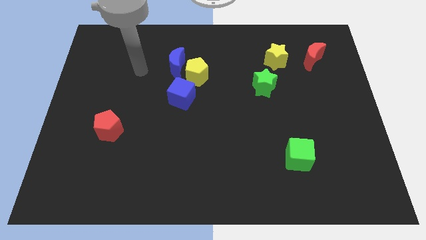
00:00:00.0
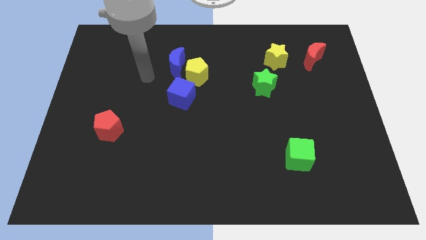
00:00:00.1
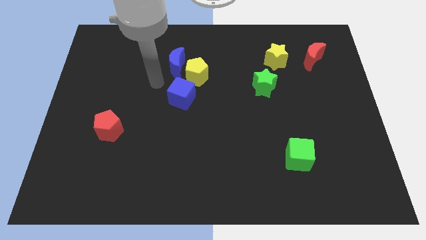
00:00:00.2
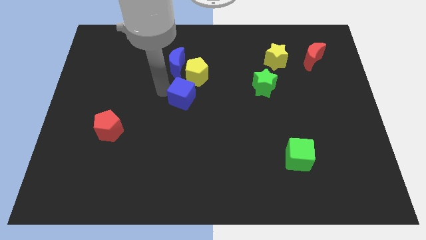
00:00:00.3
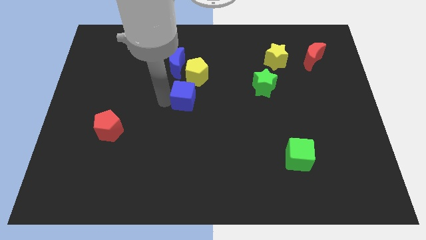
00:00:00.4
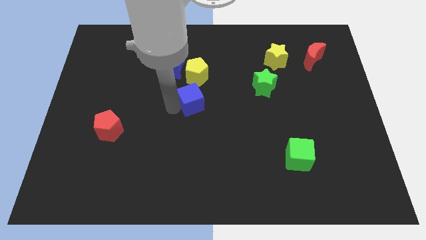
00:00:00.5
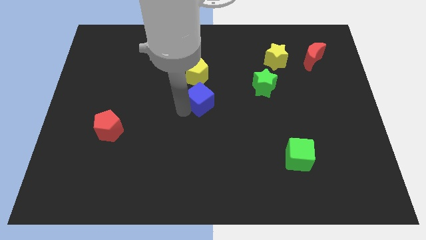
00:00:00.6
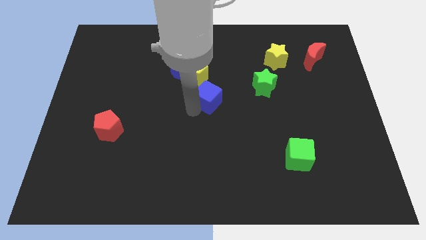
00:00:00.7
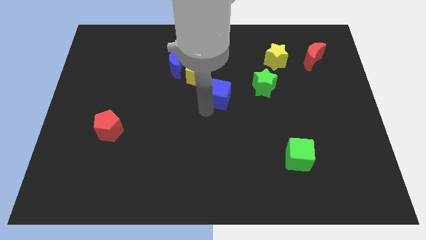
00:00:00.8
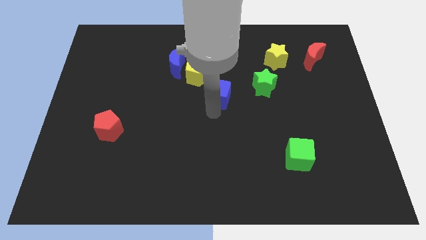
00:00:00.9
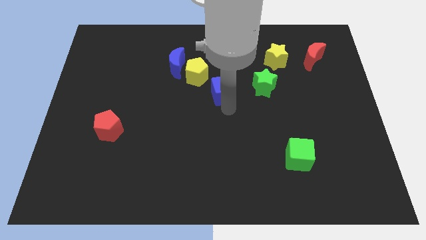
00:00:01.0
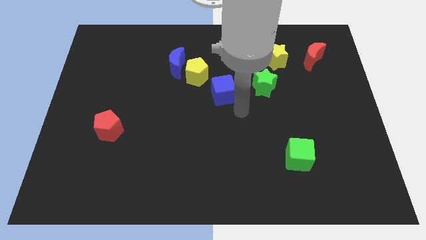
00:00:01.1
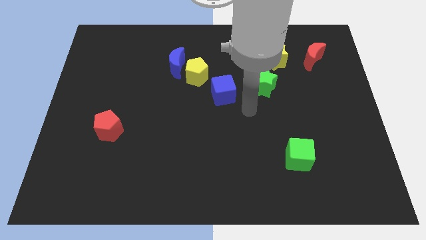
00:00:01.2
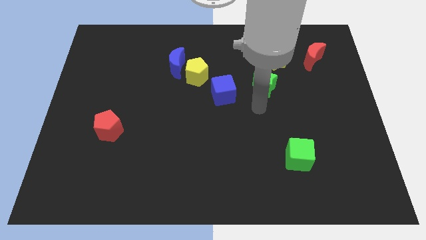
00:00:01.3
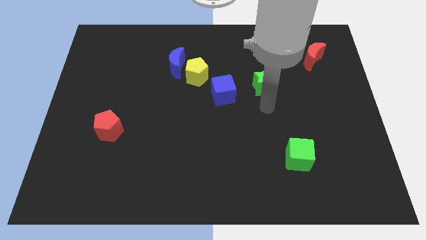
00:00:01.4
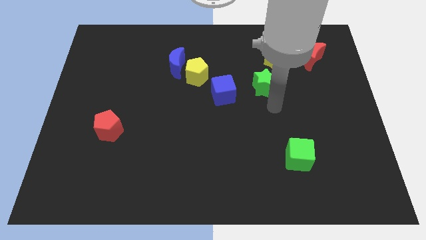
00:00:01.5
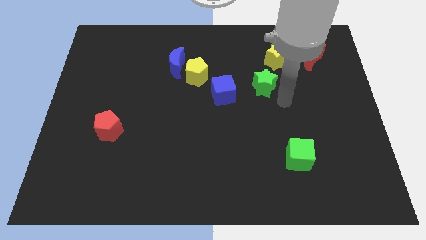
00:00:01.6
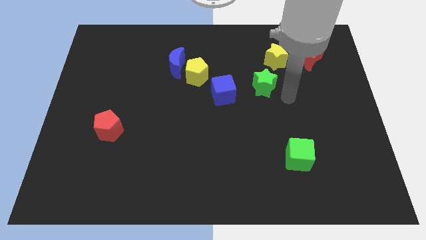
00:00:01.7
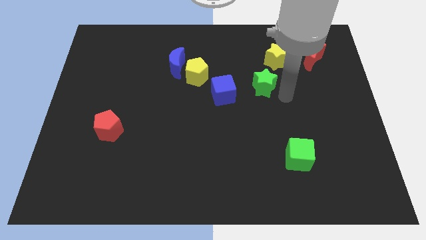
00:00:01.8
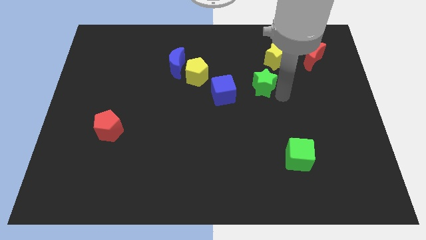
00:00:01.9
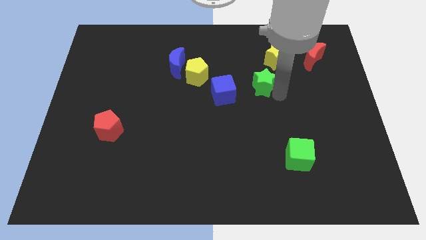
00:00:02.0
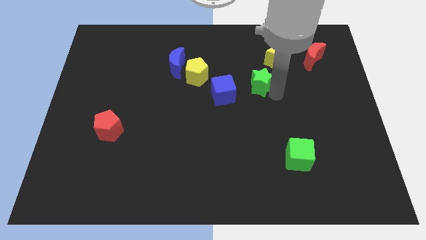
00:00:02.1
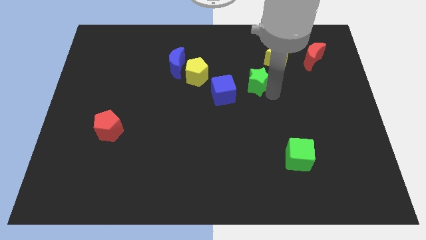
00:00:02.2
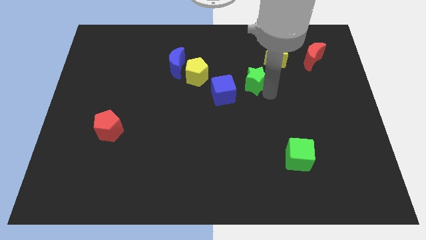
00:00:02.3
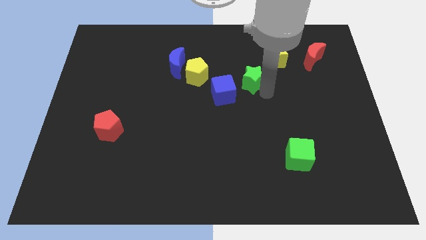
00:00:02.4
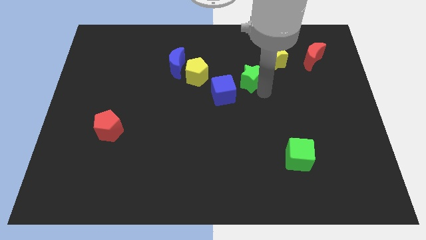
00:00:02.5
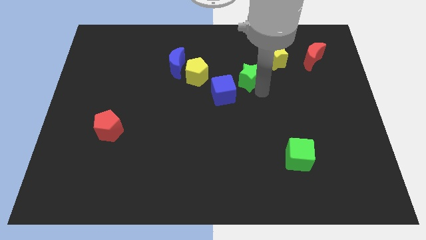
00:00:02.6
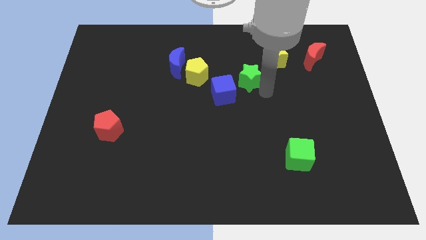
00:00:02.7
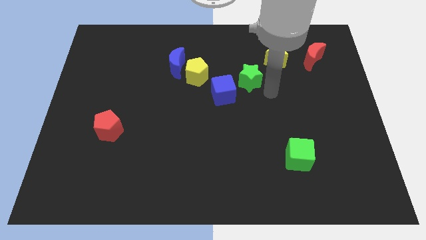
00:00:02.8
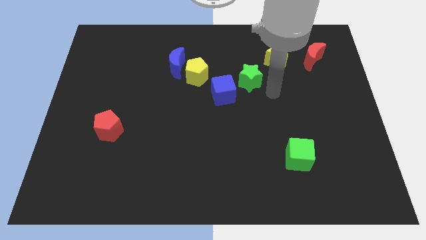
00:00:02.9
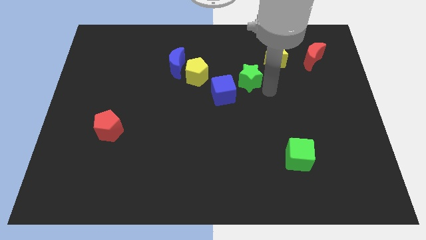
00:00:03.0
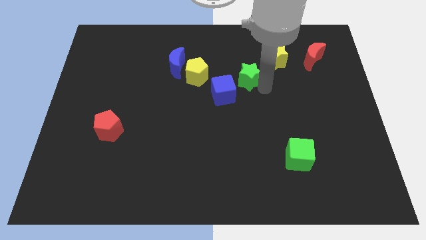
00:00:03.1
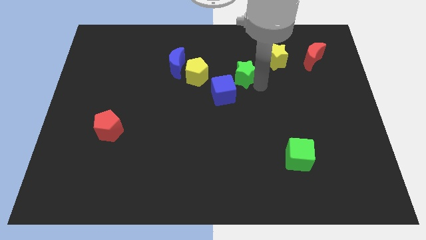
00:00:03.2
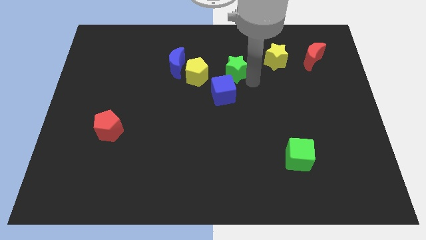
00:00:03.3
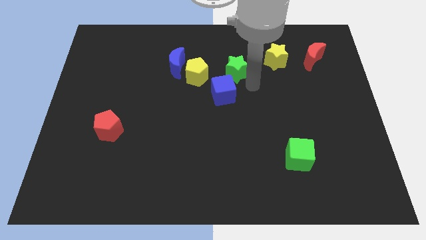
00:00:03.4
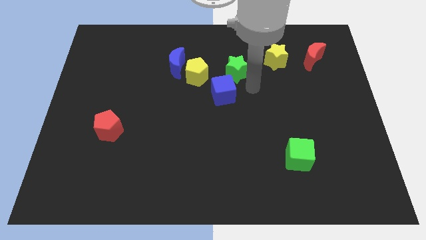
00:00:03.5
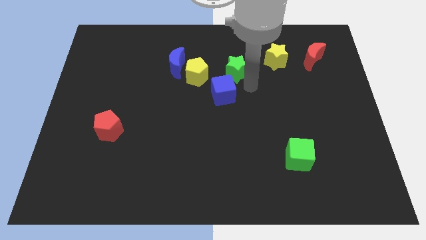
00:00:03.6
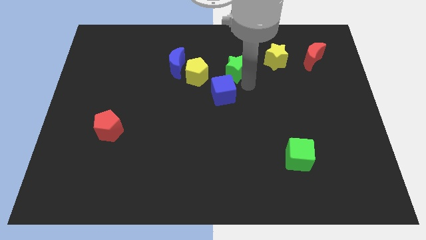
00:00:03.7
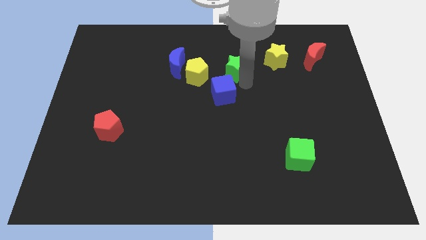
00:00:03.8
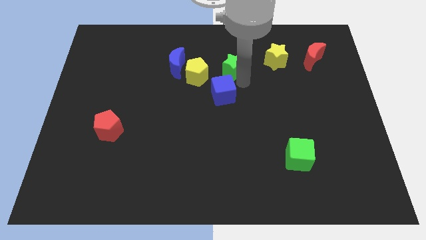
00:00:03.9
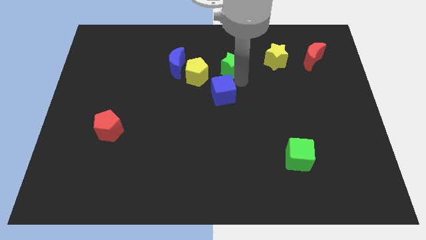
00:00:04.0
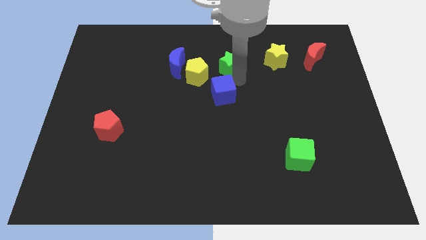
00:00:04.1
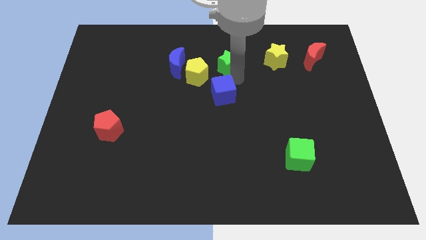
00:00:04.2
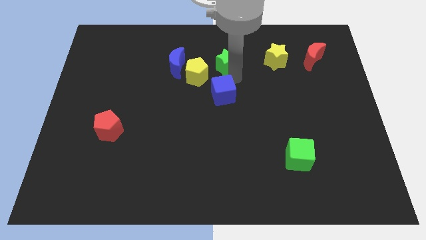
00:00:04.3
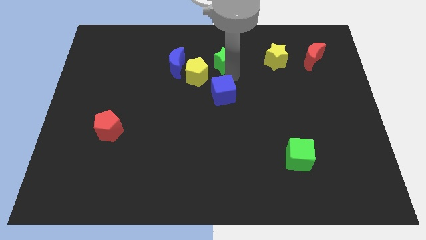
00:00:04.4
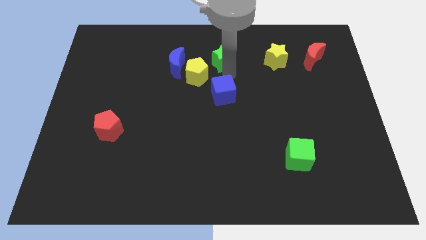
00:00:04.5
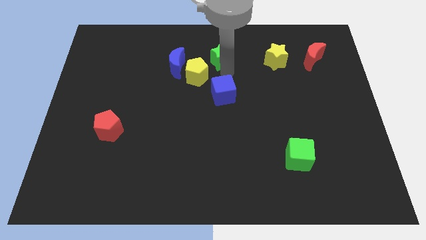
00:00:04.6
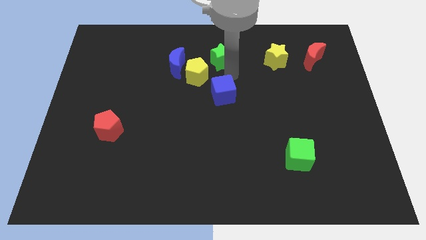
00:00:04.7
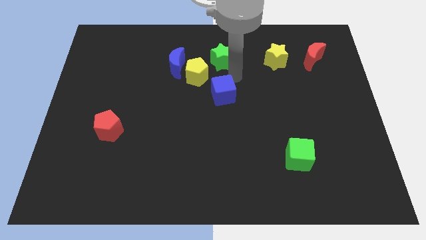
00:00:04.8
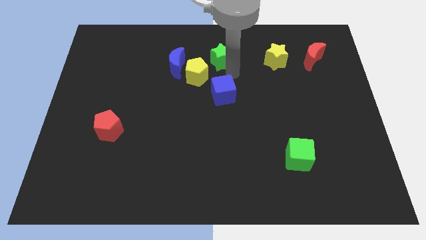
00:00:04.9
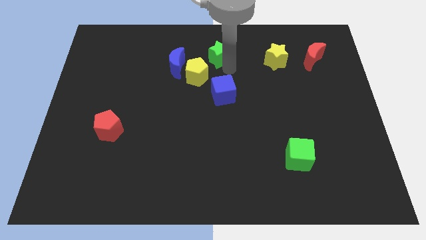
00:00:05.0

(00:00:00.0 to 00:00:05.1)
slide the green star to the top side
